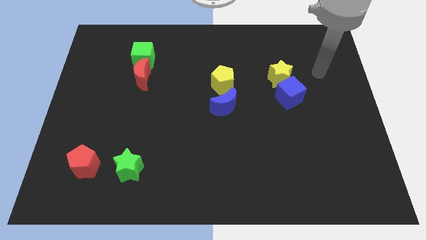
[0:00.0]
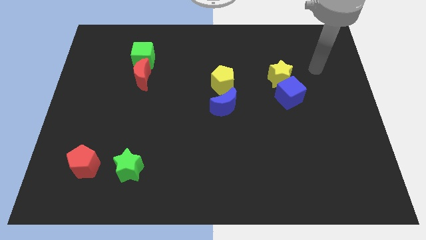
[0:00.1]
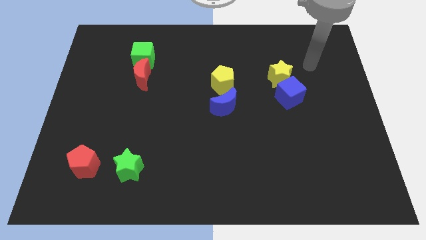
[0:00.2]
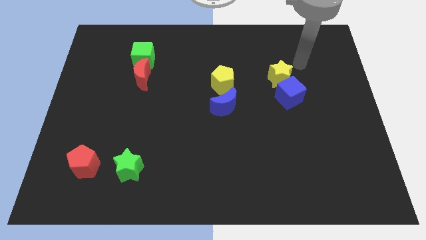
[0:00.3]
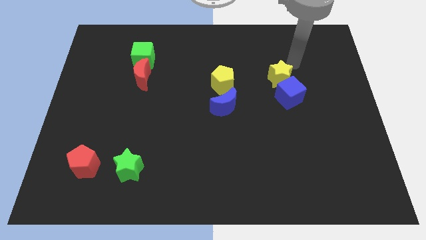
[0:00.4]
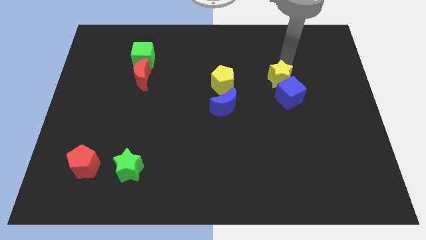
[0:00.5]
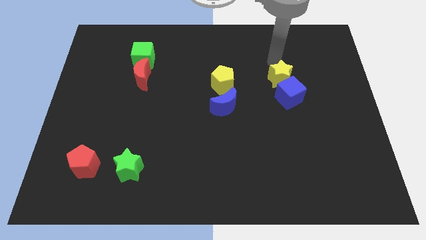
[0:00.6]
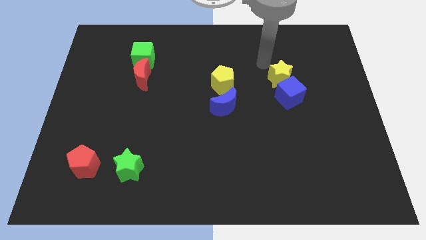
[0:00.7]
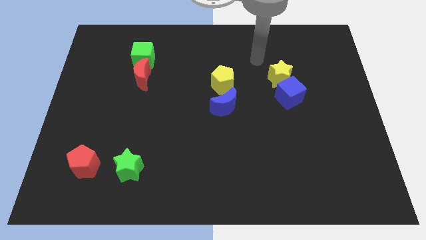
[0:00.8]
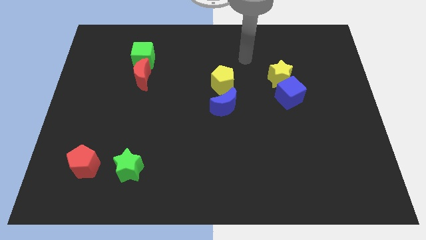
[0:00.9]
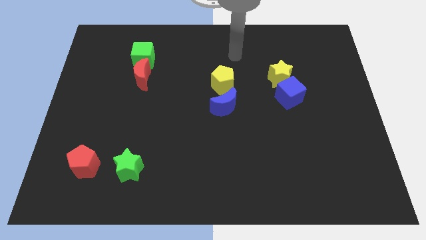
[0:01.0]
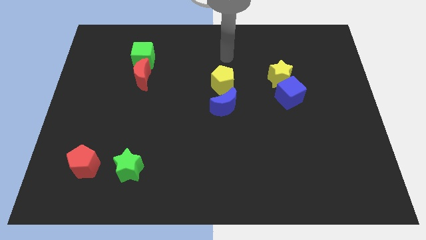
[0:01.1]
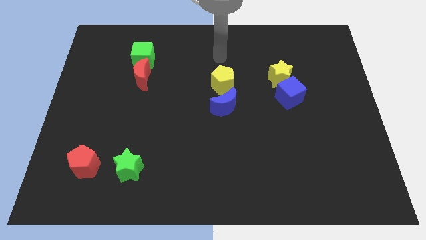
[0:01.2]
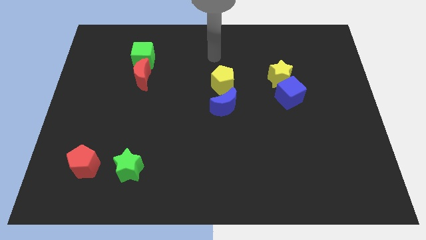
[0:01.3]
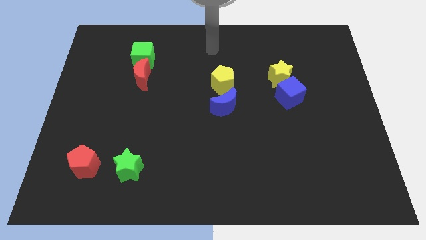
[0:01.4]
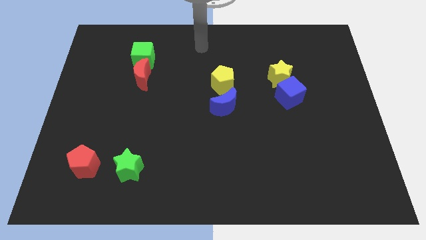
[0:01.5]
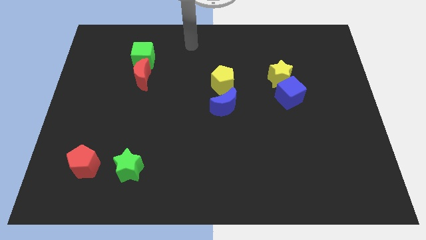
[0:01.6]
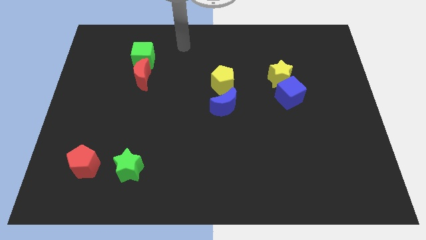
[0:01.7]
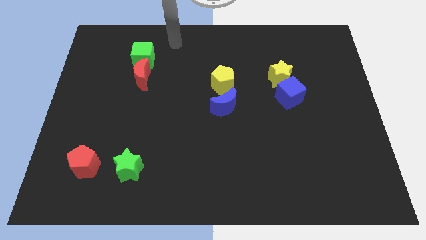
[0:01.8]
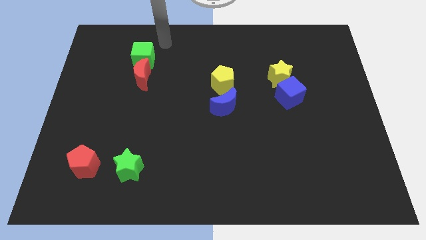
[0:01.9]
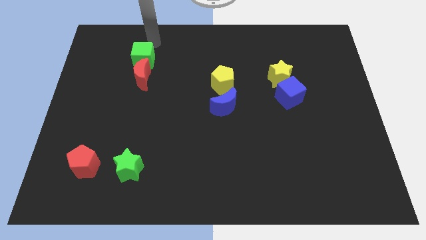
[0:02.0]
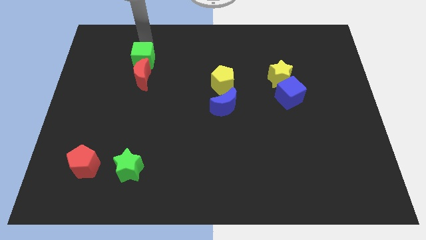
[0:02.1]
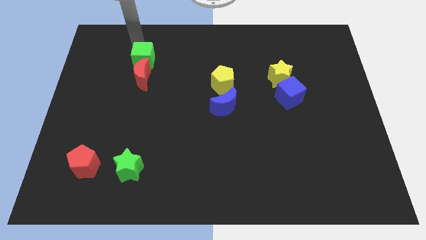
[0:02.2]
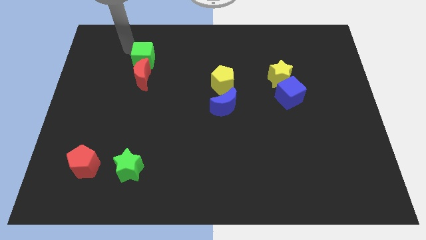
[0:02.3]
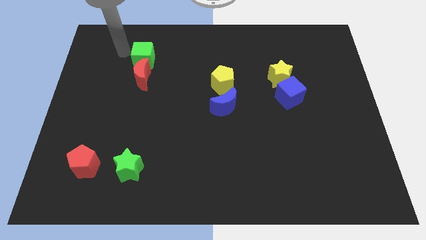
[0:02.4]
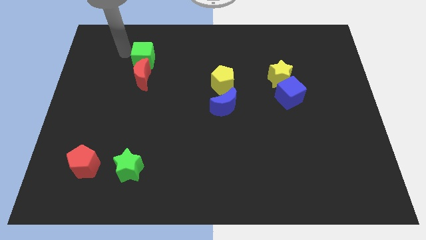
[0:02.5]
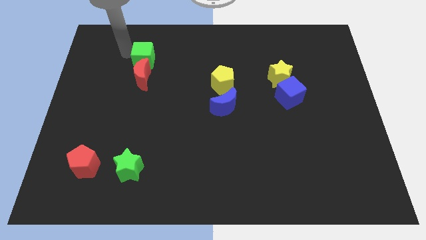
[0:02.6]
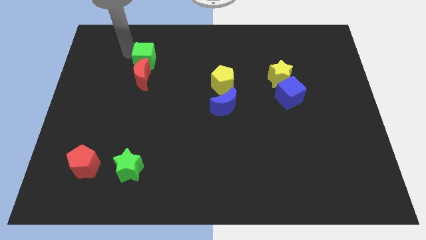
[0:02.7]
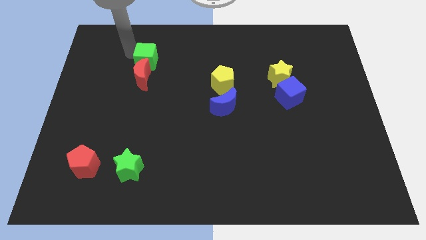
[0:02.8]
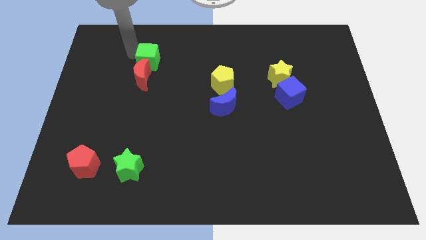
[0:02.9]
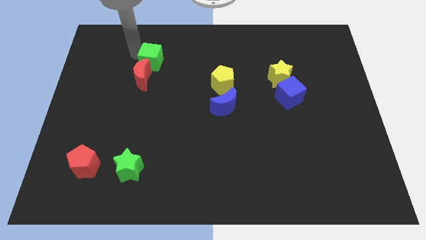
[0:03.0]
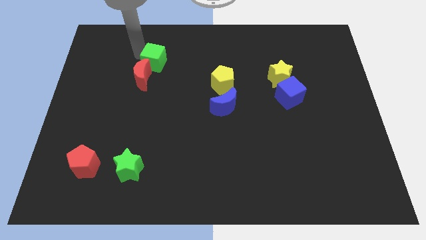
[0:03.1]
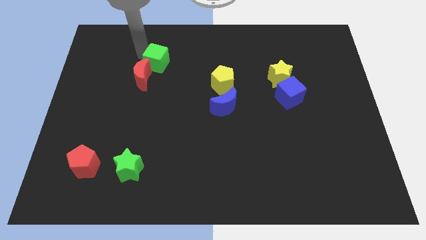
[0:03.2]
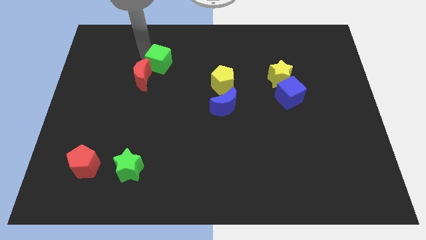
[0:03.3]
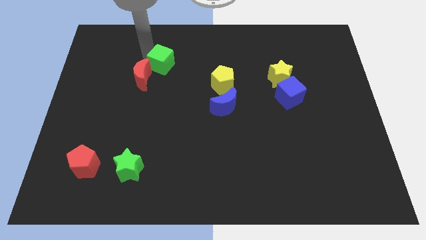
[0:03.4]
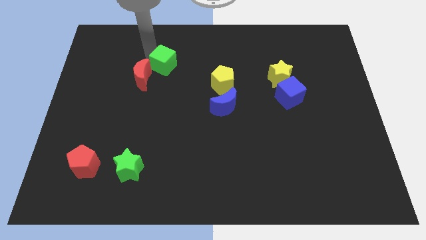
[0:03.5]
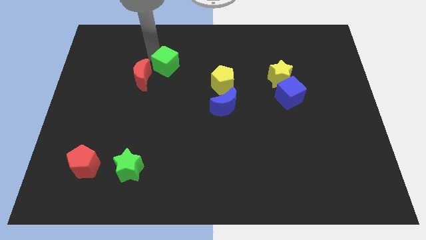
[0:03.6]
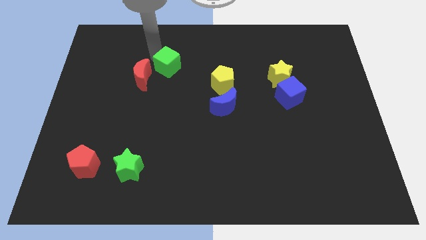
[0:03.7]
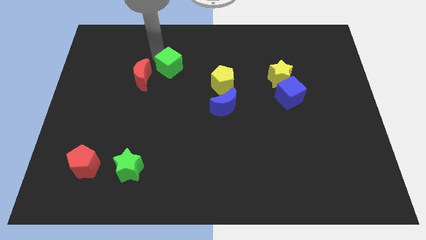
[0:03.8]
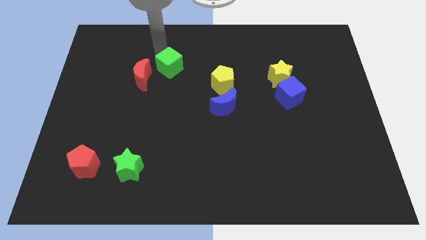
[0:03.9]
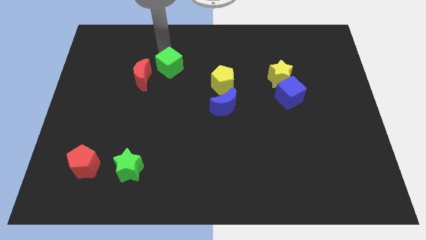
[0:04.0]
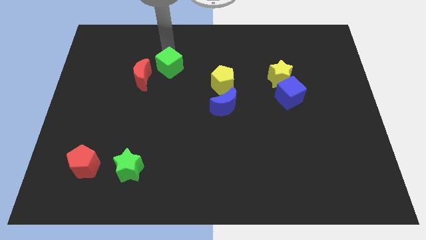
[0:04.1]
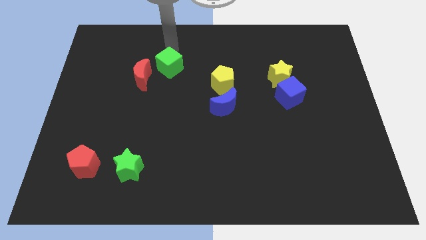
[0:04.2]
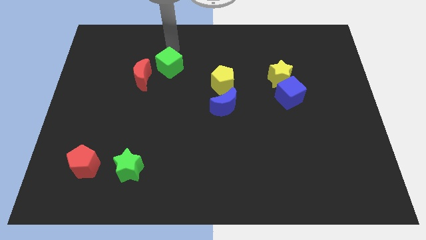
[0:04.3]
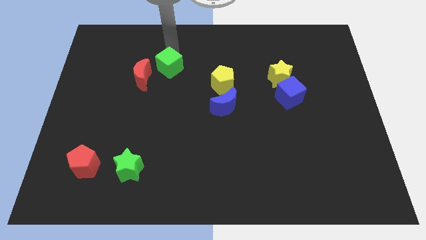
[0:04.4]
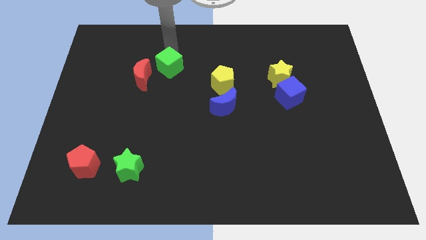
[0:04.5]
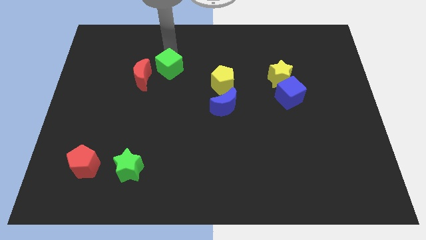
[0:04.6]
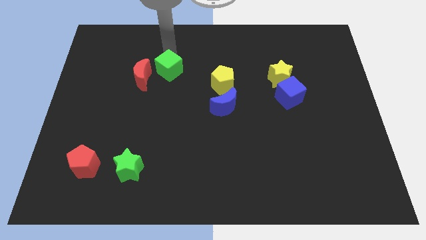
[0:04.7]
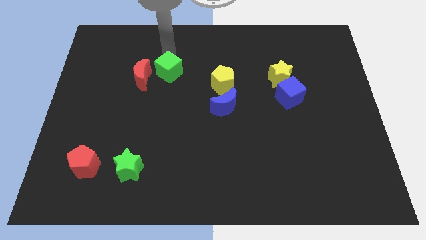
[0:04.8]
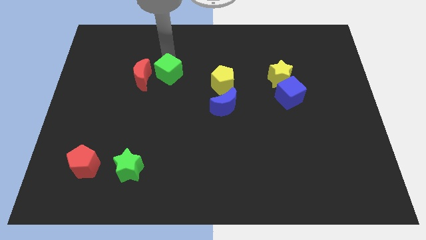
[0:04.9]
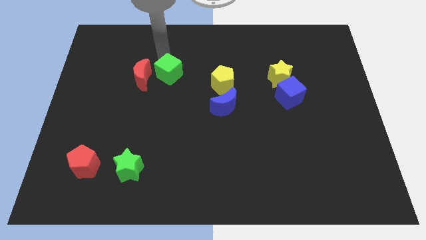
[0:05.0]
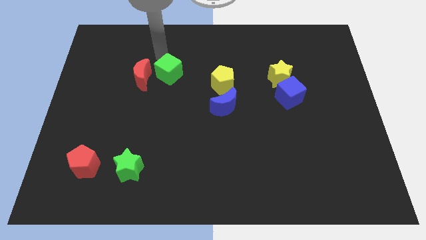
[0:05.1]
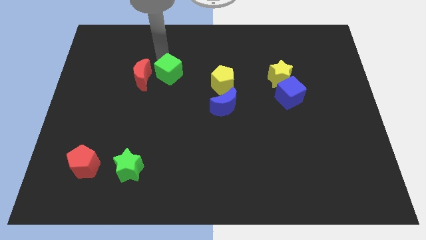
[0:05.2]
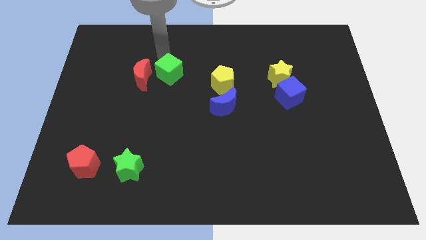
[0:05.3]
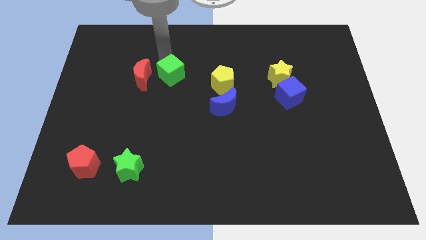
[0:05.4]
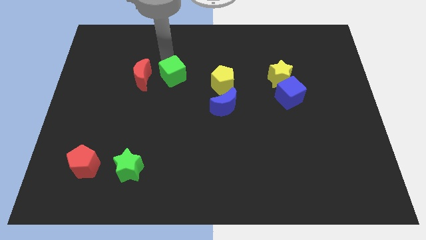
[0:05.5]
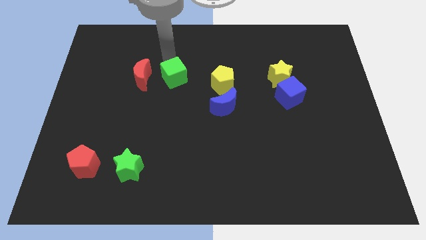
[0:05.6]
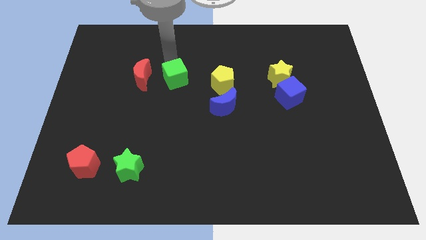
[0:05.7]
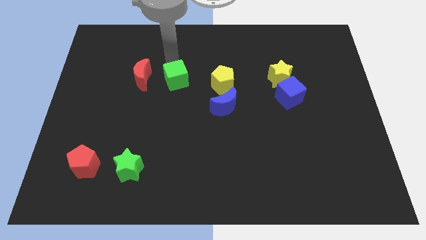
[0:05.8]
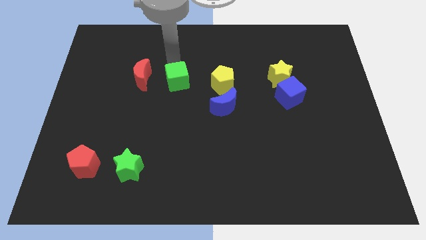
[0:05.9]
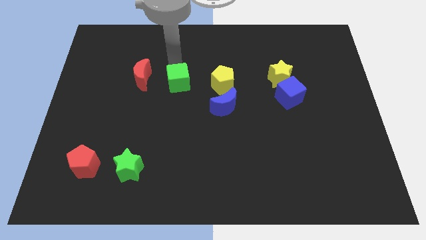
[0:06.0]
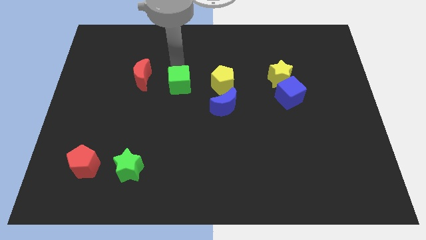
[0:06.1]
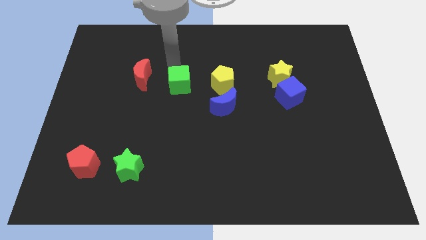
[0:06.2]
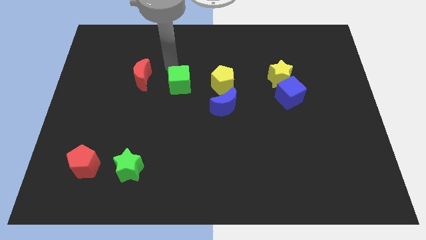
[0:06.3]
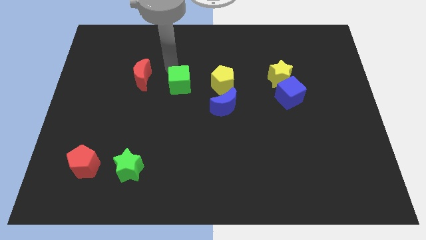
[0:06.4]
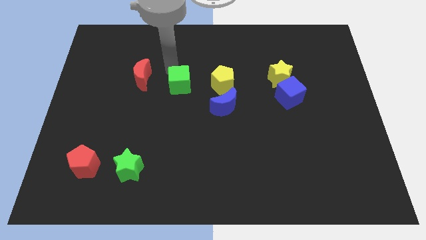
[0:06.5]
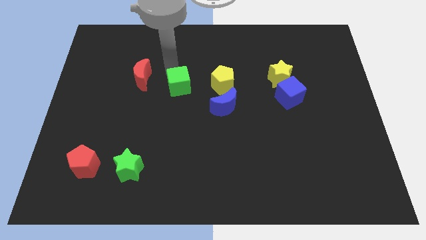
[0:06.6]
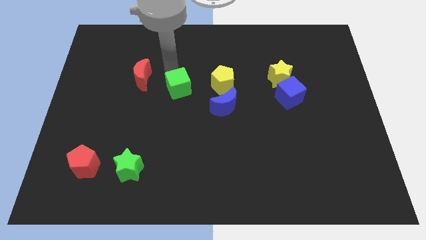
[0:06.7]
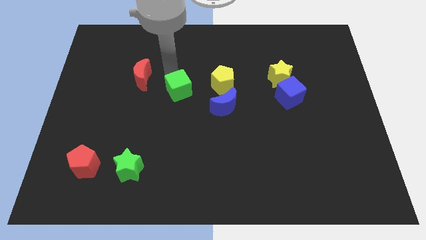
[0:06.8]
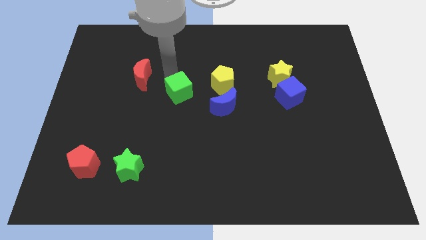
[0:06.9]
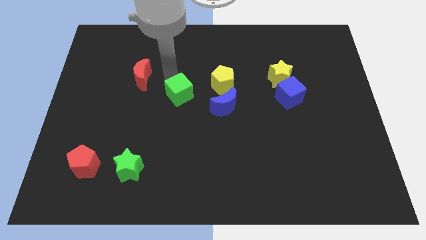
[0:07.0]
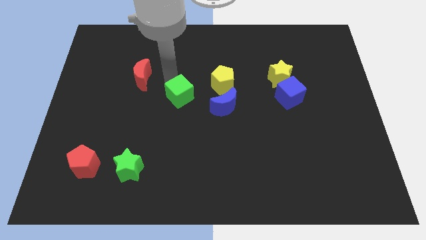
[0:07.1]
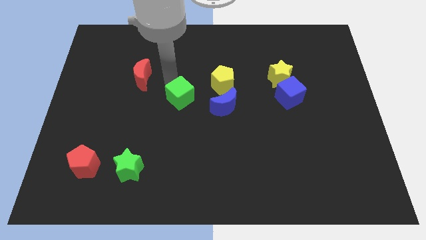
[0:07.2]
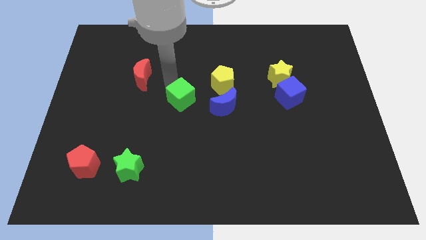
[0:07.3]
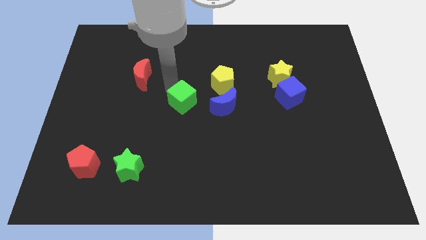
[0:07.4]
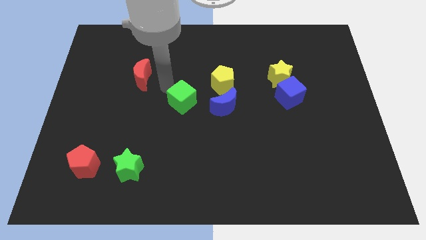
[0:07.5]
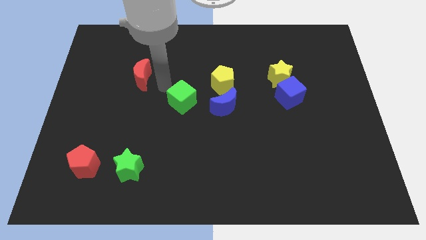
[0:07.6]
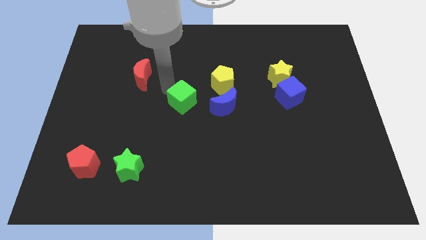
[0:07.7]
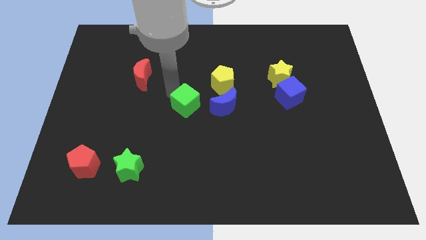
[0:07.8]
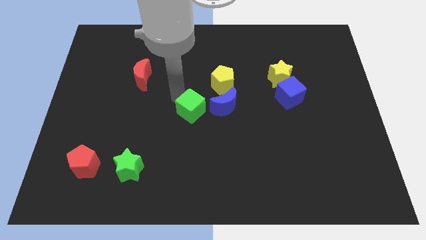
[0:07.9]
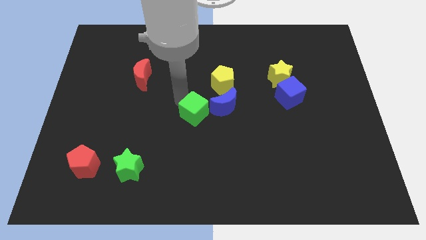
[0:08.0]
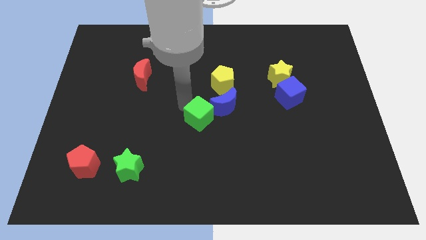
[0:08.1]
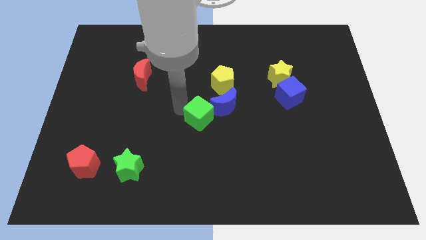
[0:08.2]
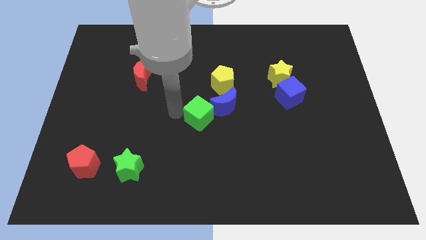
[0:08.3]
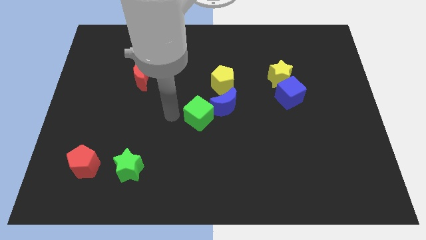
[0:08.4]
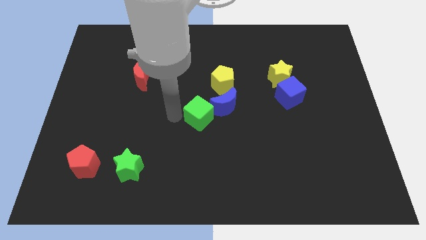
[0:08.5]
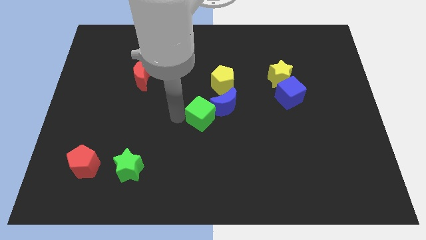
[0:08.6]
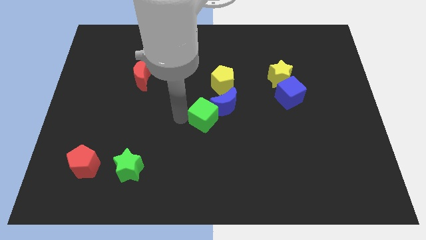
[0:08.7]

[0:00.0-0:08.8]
move the green cube to the bottom of the yellow pentagon
